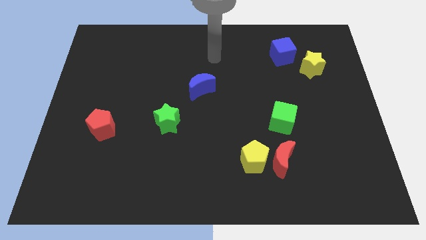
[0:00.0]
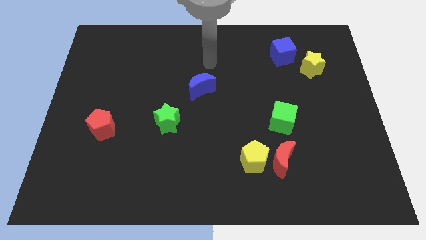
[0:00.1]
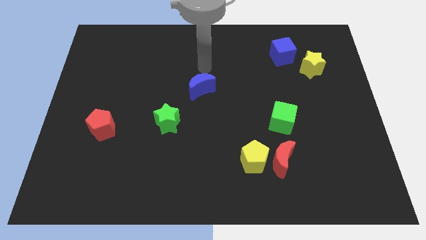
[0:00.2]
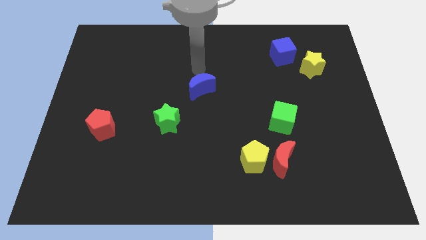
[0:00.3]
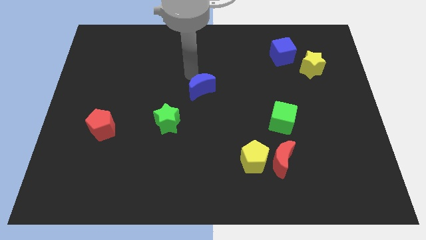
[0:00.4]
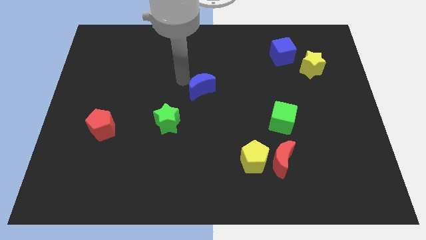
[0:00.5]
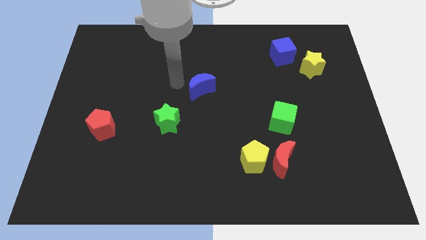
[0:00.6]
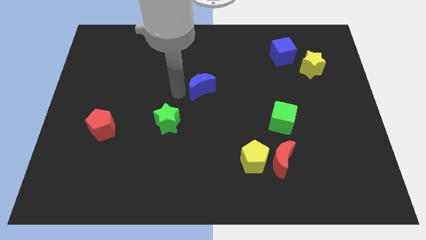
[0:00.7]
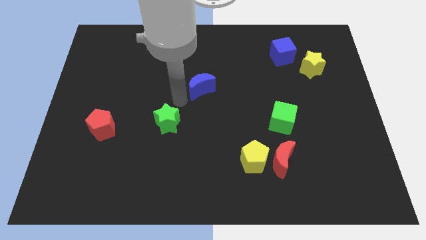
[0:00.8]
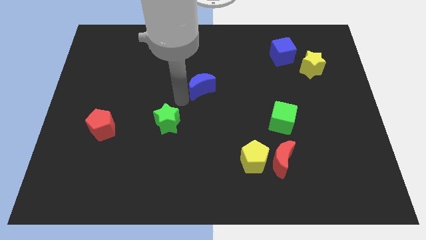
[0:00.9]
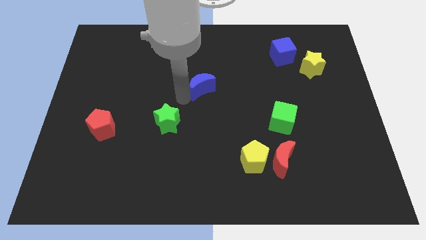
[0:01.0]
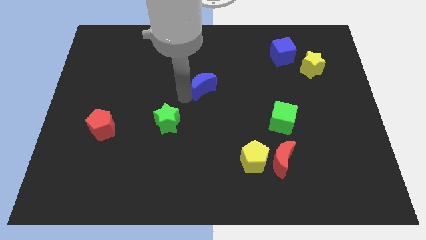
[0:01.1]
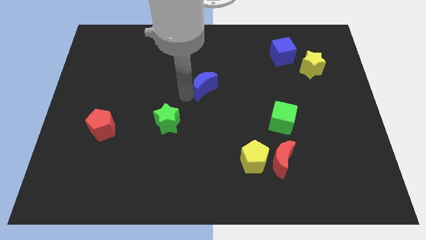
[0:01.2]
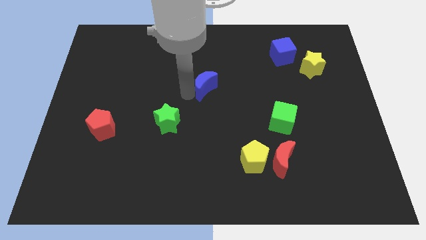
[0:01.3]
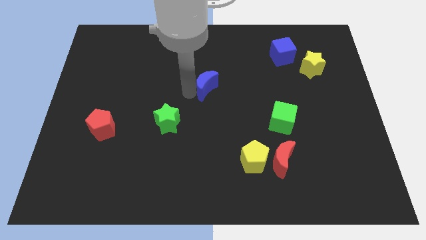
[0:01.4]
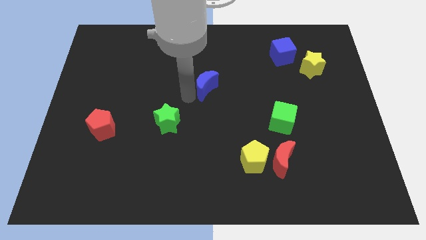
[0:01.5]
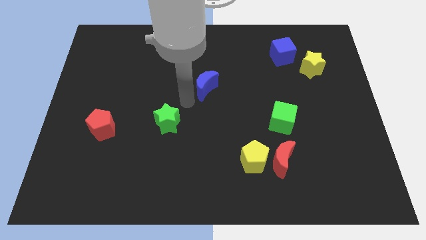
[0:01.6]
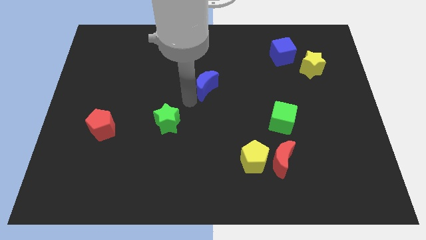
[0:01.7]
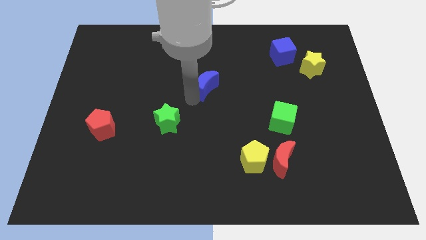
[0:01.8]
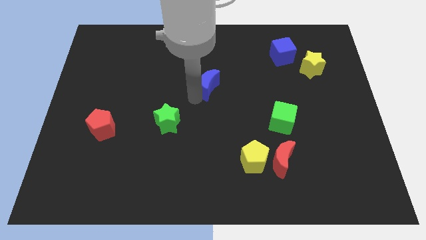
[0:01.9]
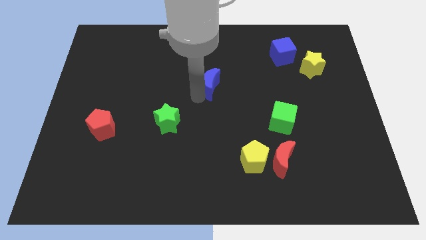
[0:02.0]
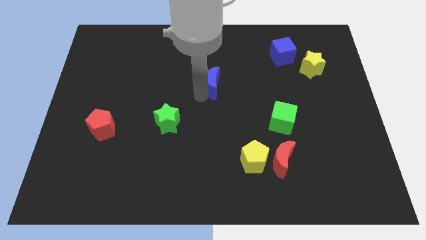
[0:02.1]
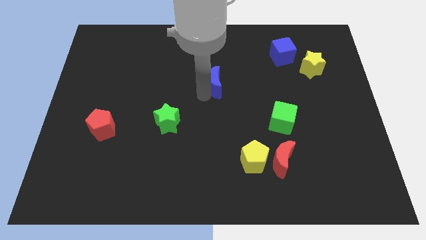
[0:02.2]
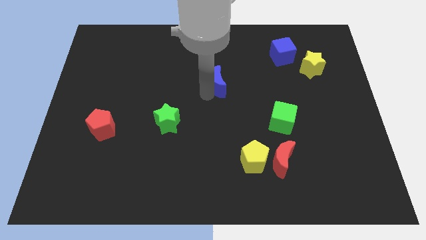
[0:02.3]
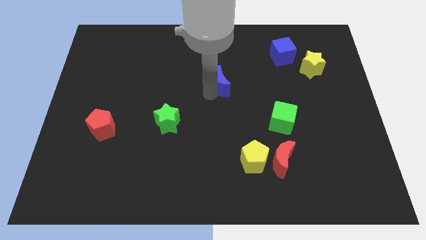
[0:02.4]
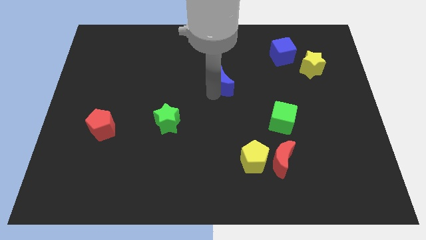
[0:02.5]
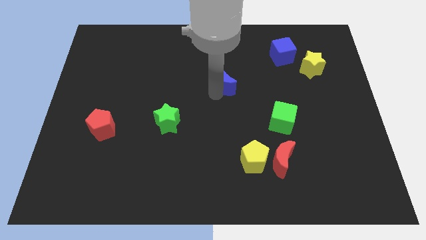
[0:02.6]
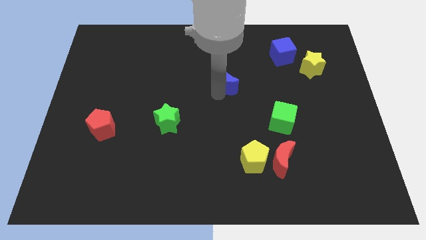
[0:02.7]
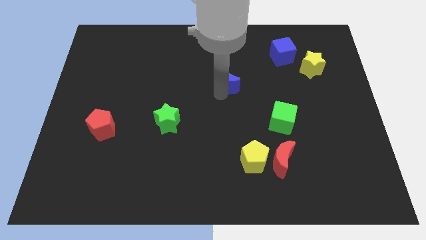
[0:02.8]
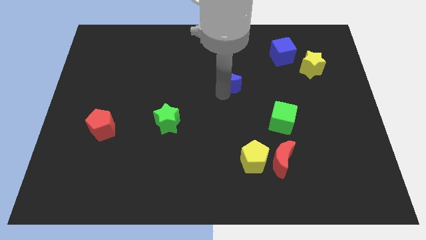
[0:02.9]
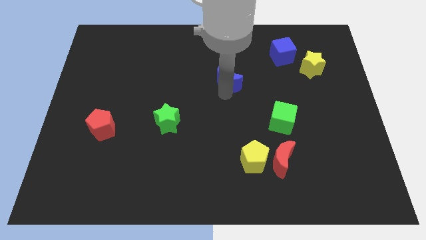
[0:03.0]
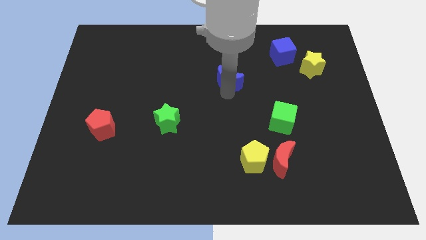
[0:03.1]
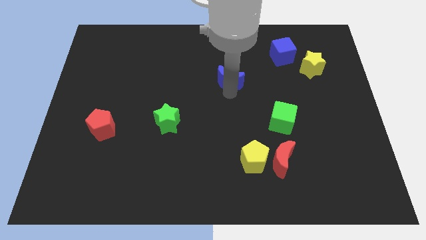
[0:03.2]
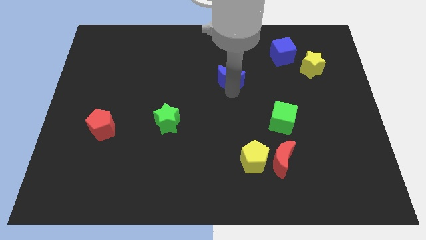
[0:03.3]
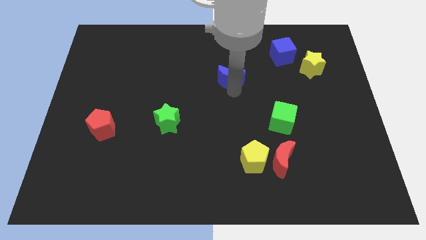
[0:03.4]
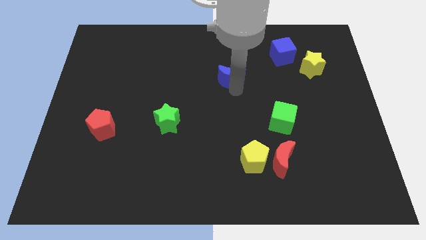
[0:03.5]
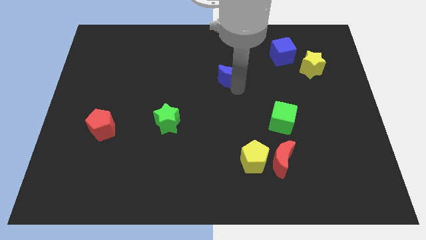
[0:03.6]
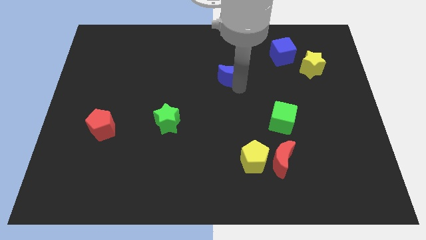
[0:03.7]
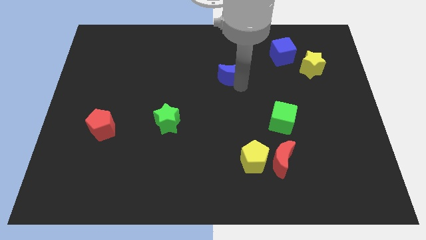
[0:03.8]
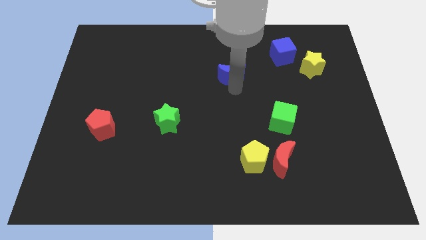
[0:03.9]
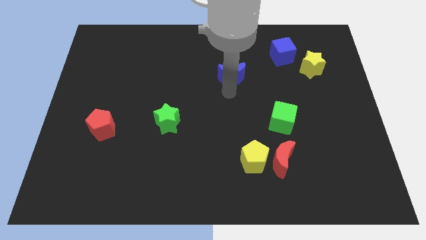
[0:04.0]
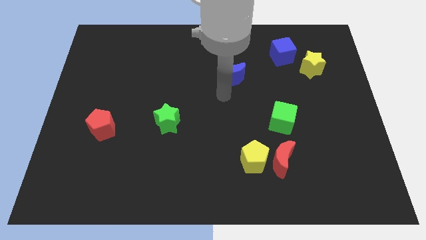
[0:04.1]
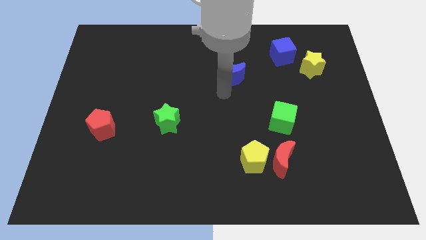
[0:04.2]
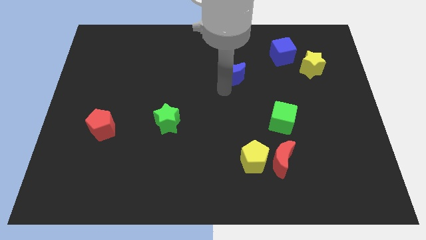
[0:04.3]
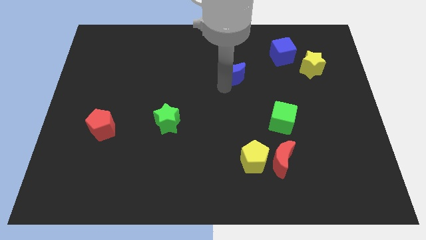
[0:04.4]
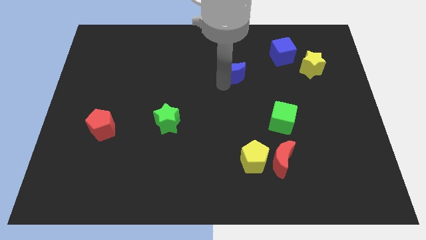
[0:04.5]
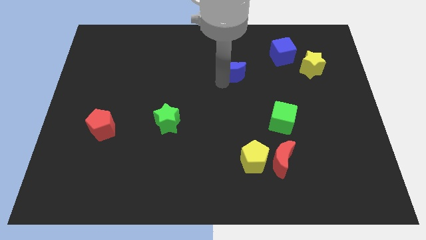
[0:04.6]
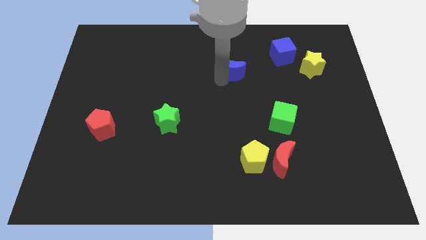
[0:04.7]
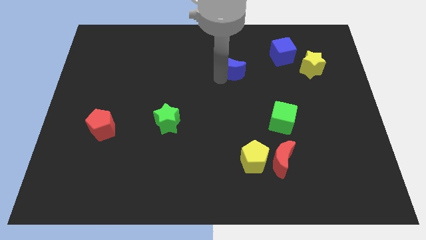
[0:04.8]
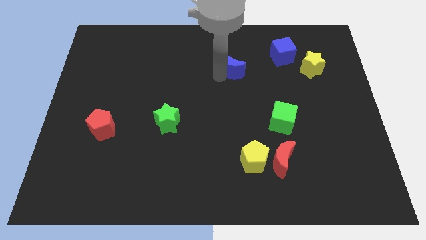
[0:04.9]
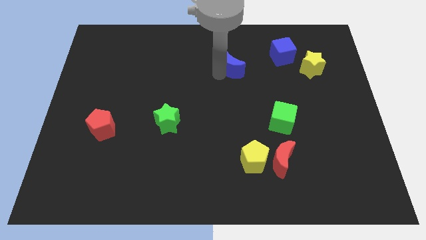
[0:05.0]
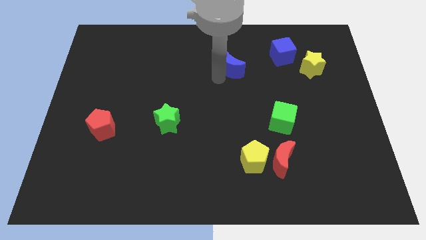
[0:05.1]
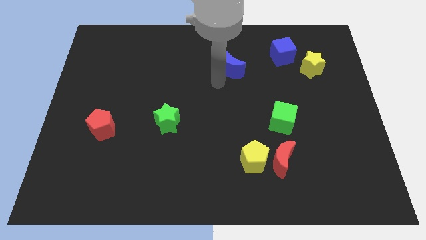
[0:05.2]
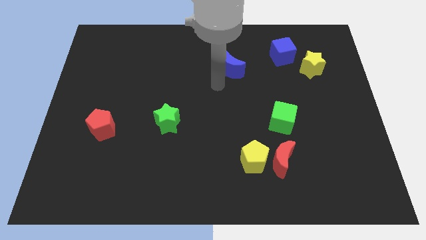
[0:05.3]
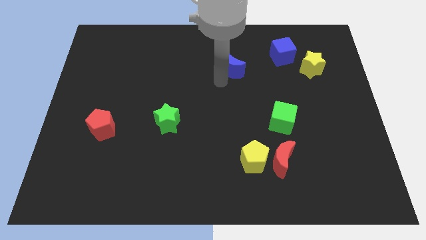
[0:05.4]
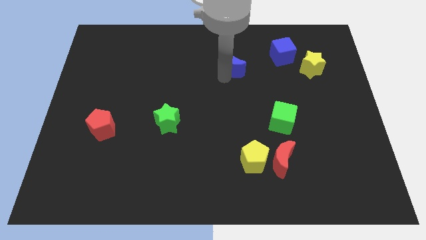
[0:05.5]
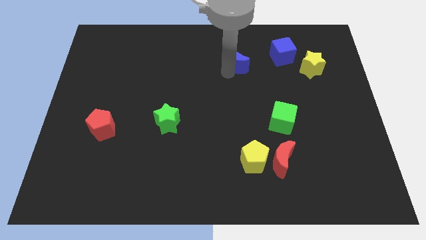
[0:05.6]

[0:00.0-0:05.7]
put the blue moon left of the blue cube

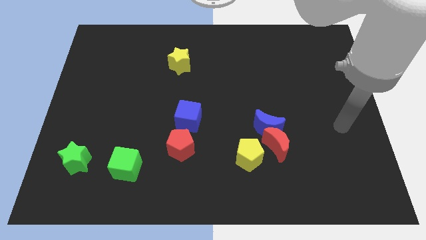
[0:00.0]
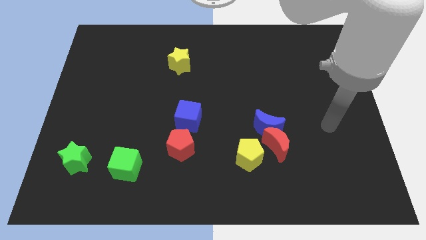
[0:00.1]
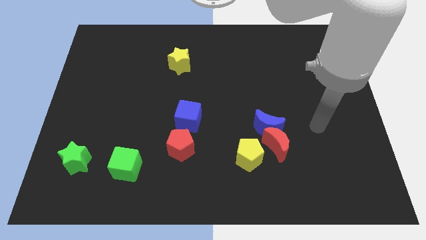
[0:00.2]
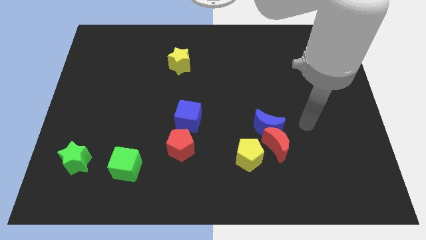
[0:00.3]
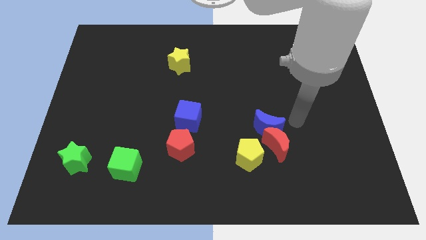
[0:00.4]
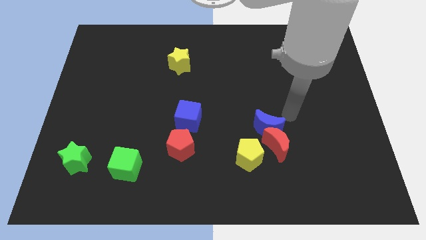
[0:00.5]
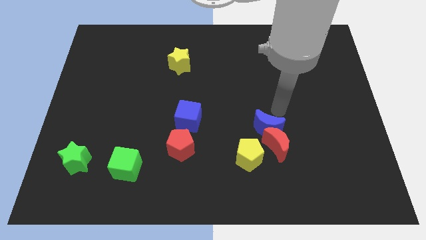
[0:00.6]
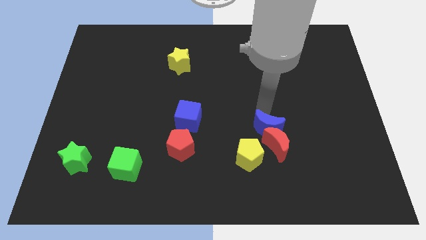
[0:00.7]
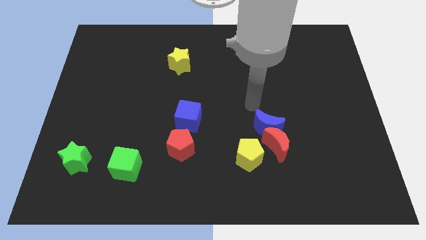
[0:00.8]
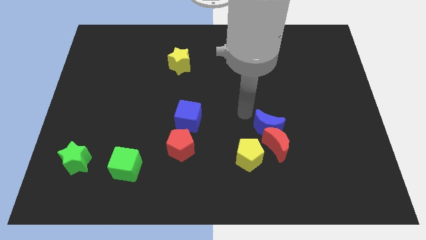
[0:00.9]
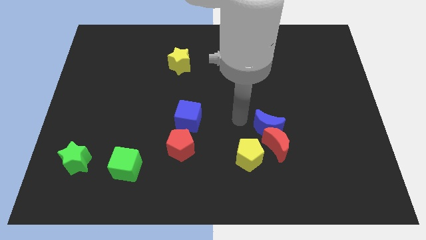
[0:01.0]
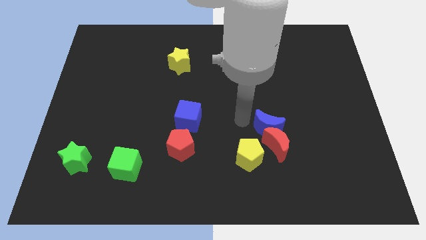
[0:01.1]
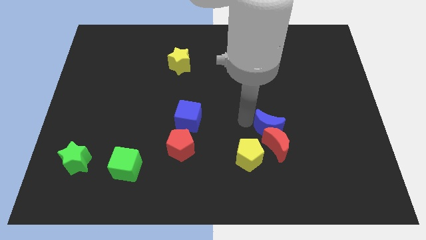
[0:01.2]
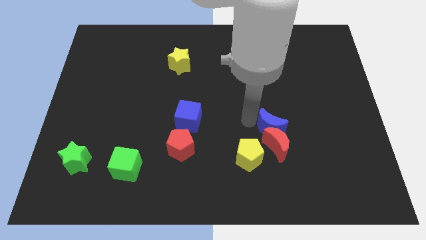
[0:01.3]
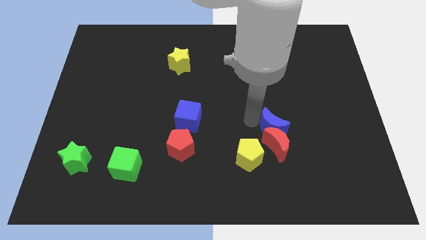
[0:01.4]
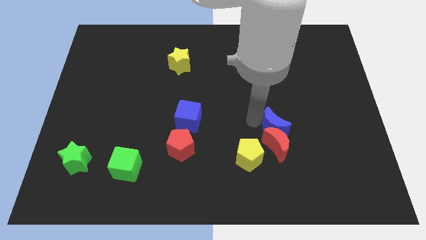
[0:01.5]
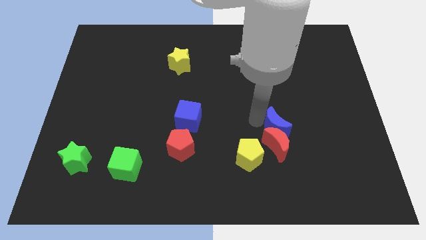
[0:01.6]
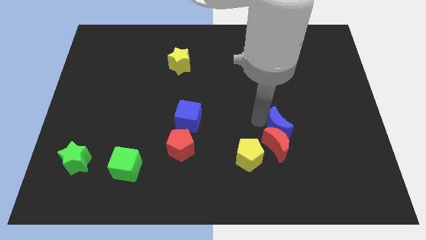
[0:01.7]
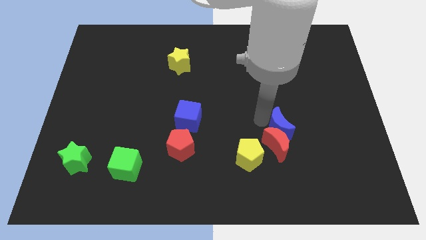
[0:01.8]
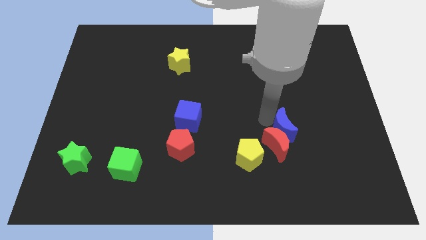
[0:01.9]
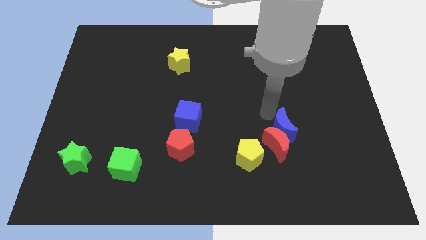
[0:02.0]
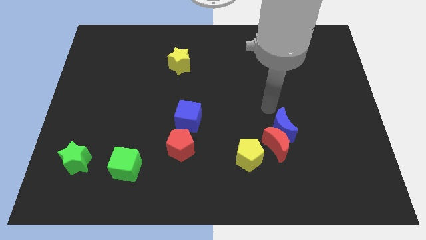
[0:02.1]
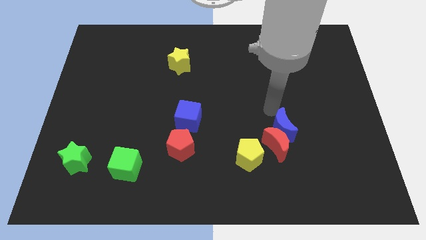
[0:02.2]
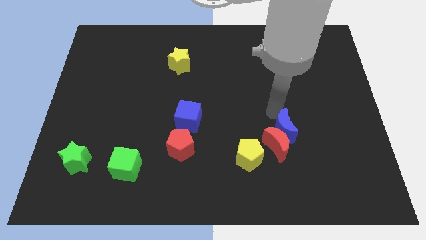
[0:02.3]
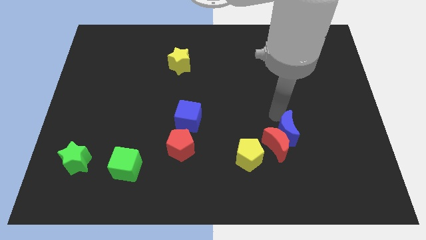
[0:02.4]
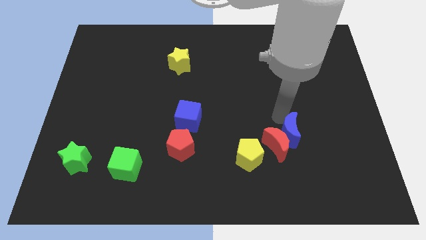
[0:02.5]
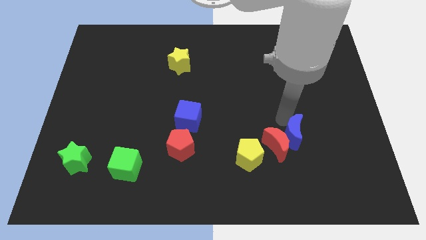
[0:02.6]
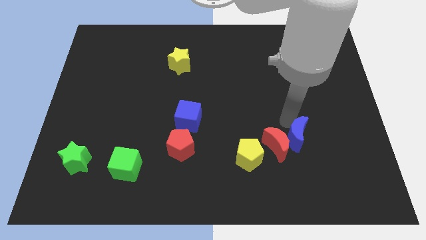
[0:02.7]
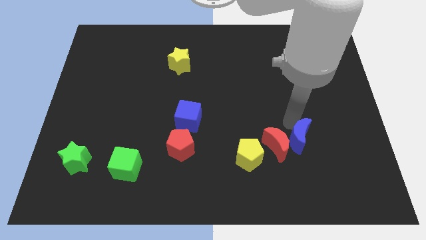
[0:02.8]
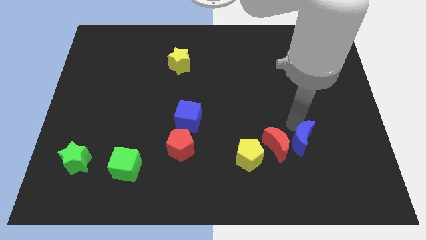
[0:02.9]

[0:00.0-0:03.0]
slide the blue moon to the bottom right side of the red moon
